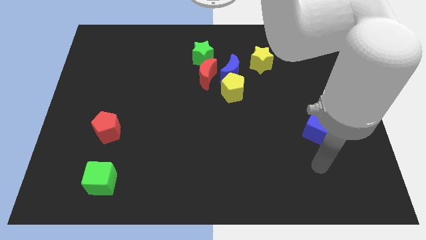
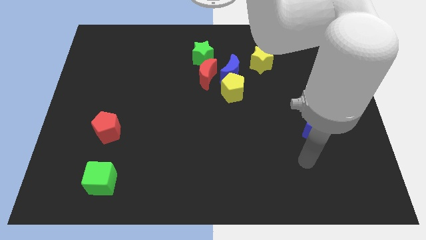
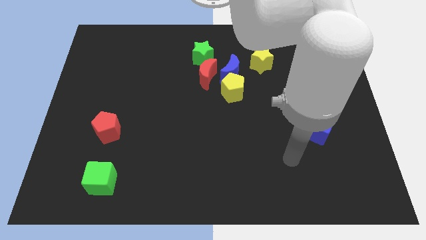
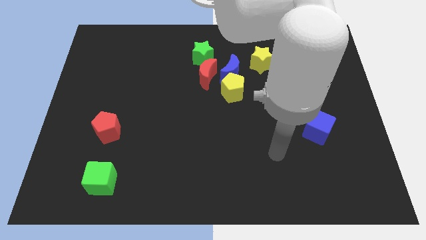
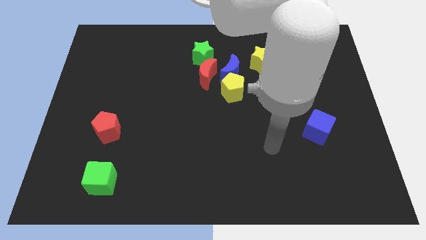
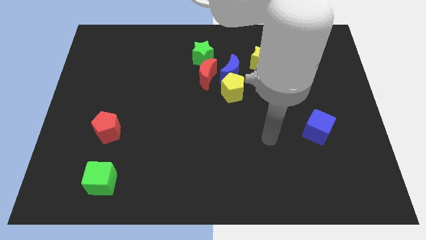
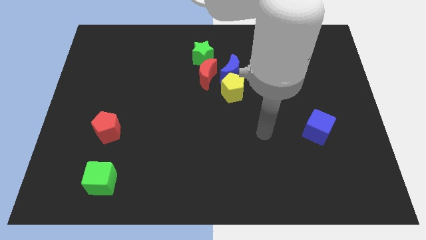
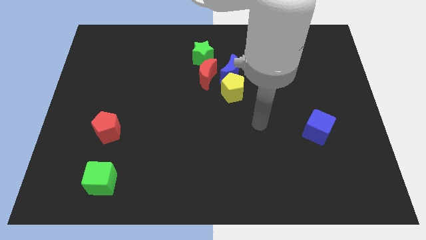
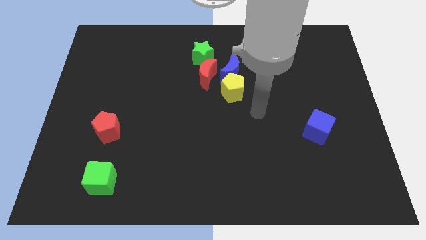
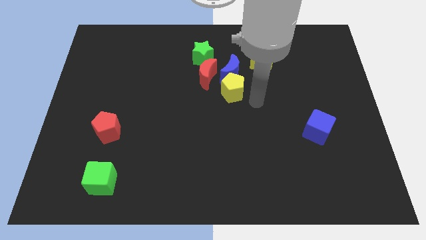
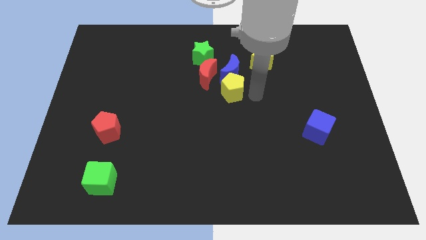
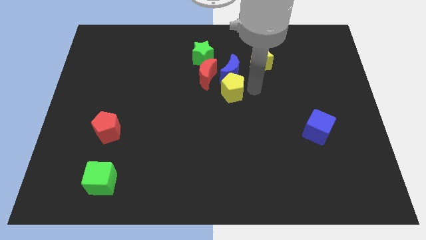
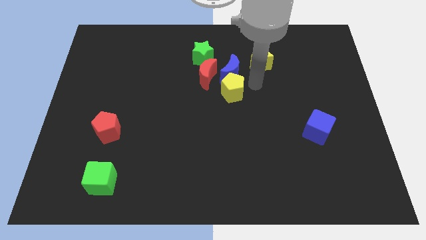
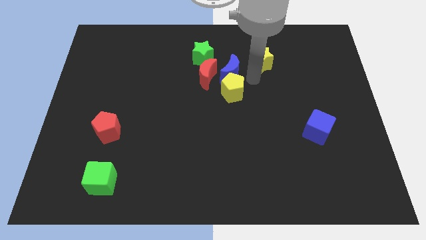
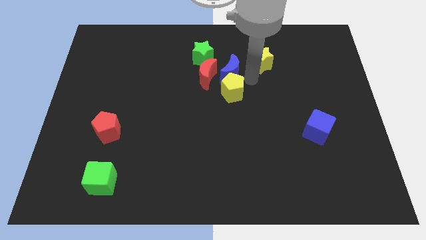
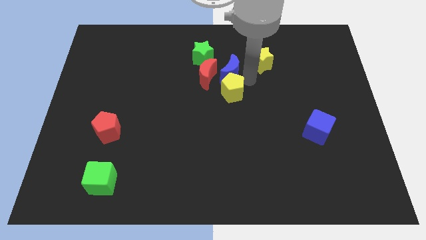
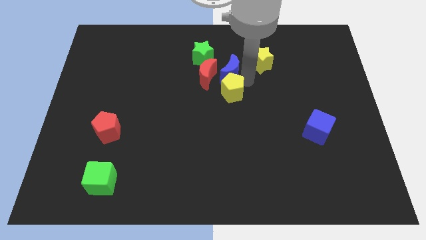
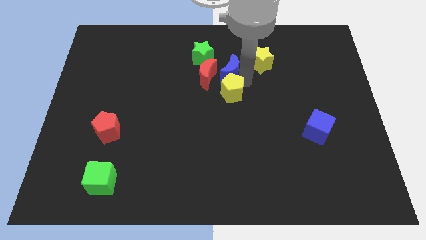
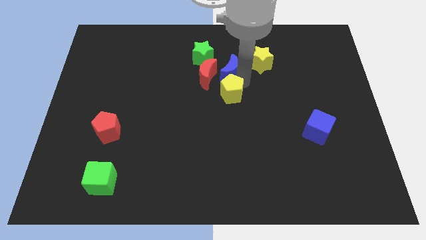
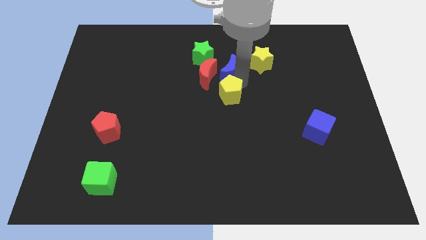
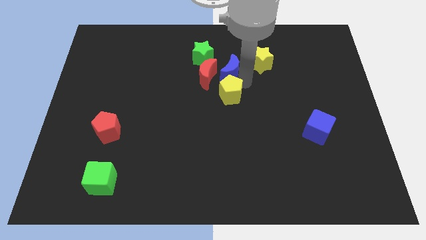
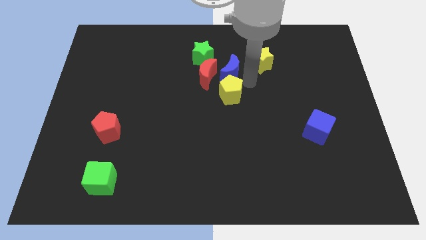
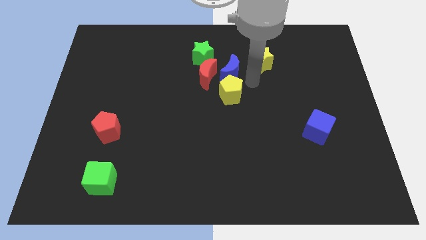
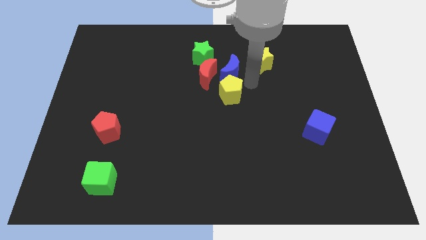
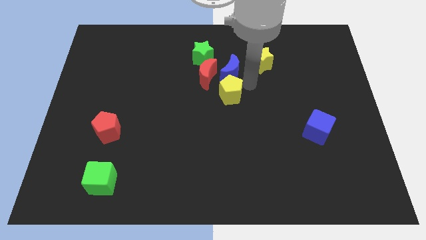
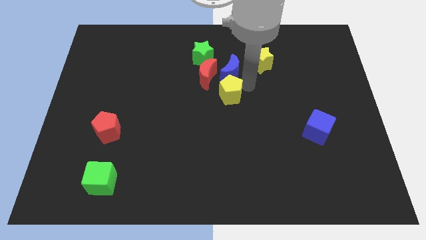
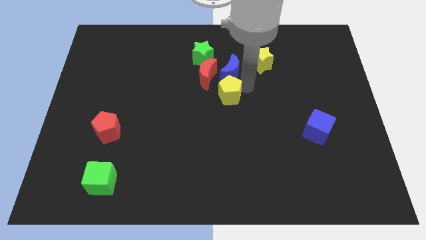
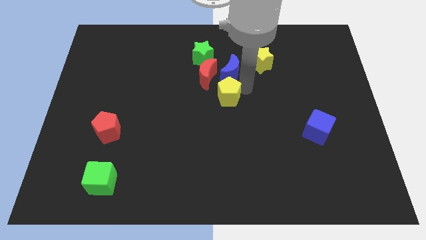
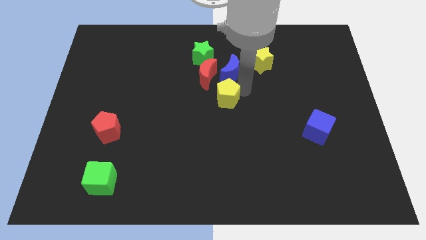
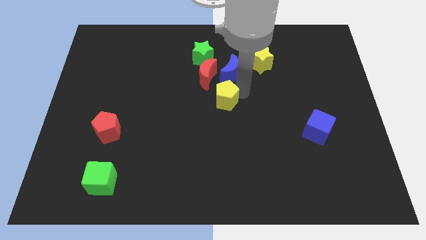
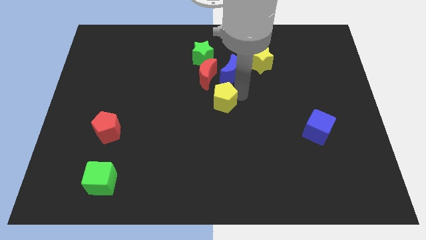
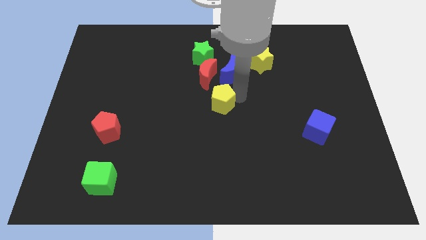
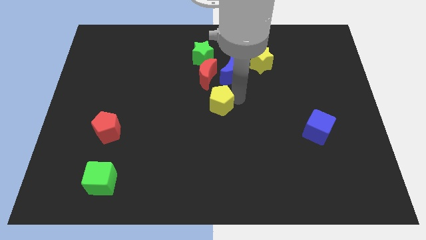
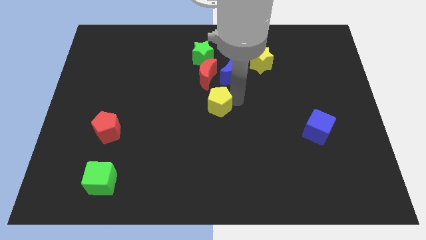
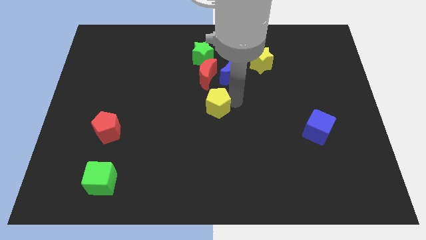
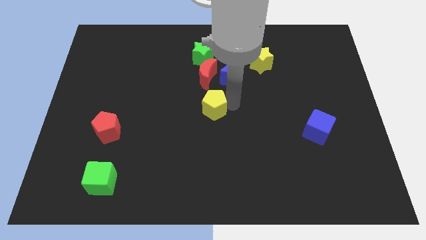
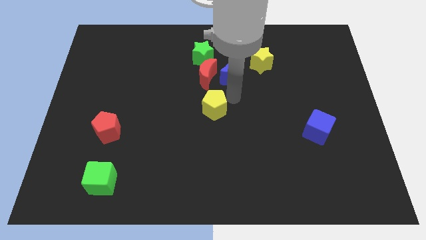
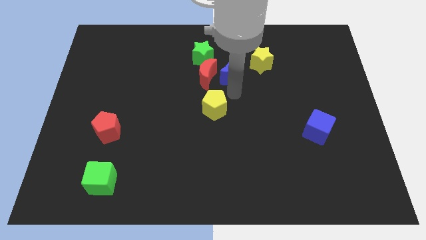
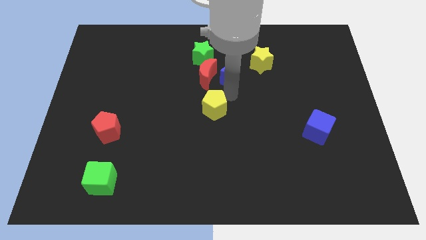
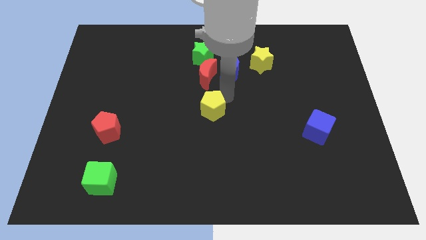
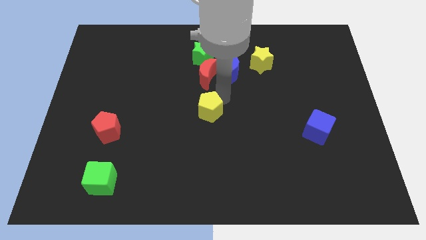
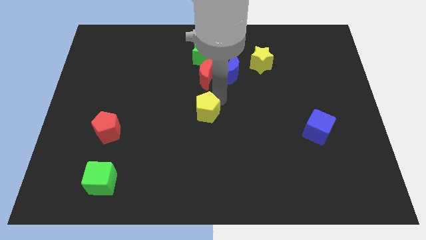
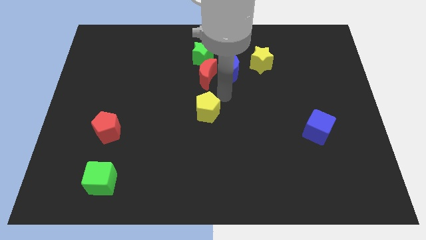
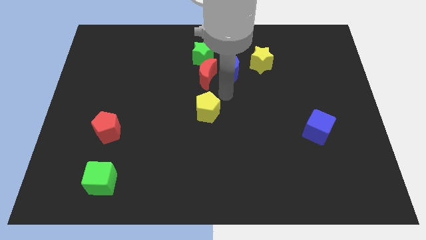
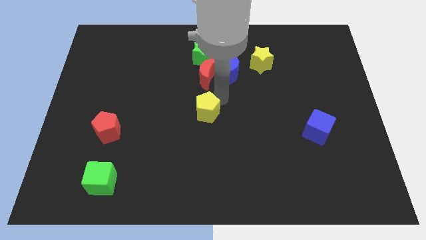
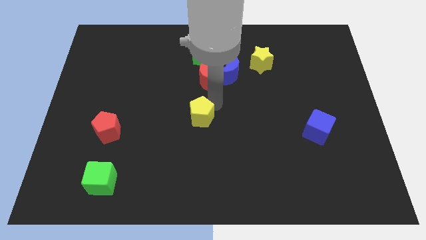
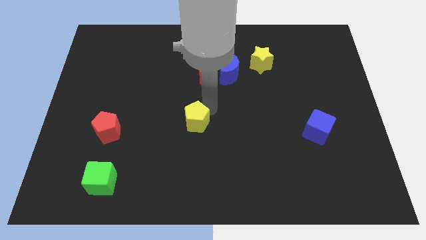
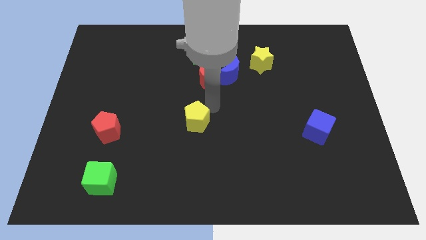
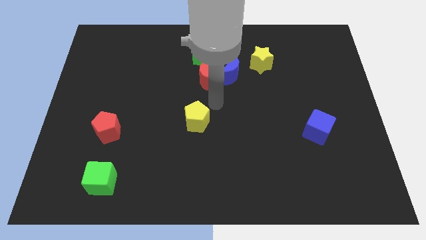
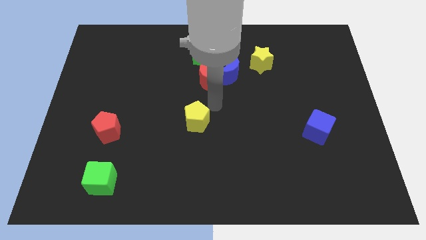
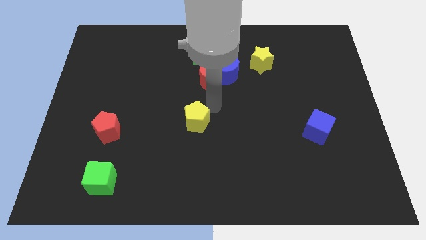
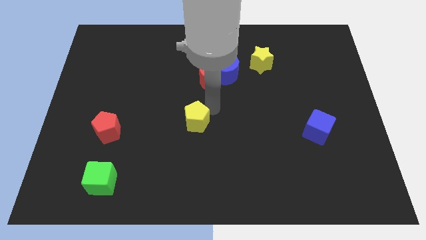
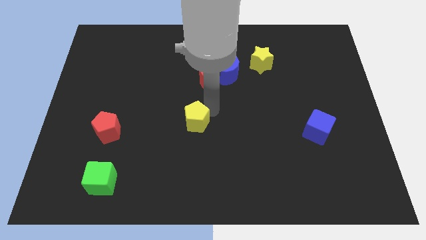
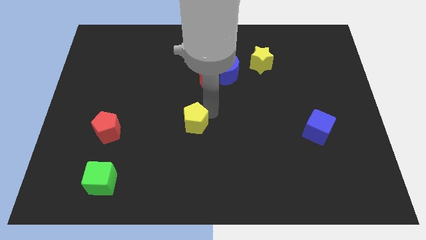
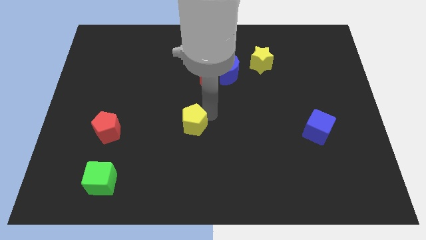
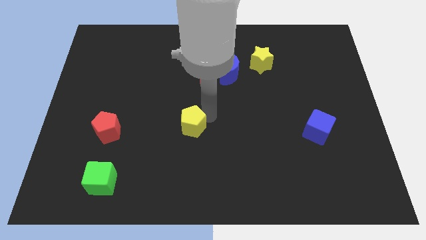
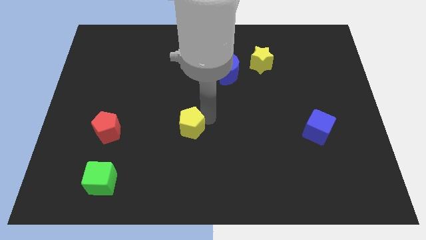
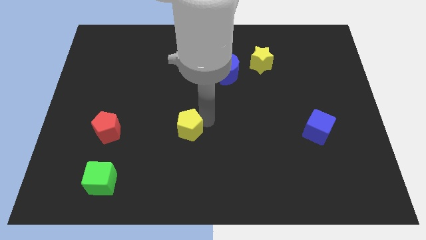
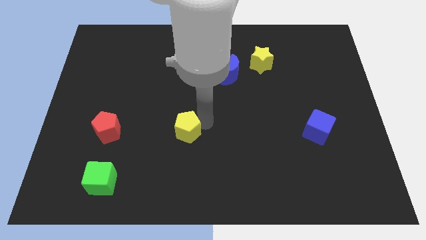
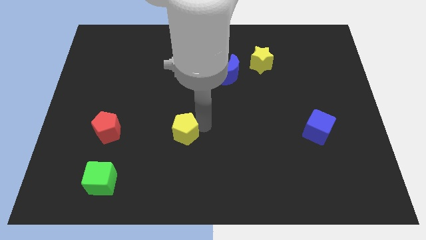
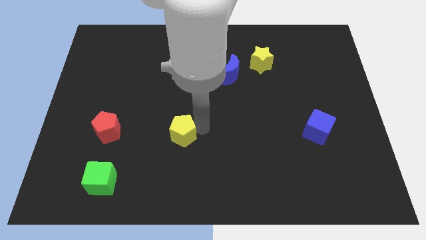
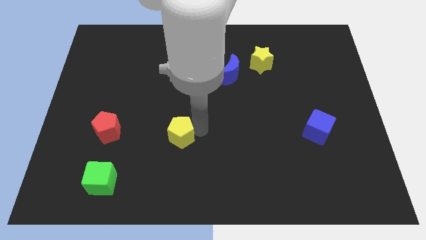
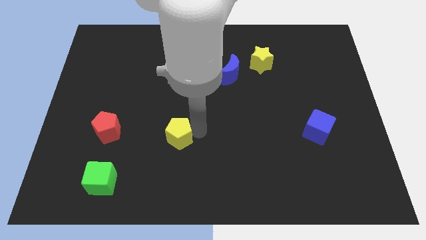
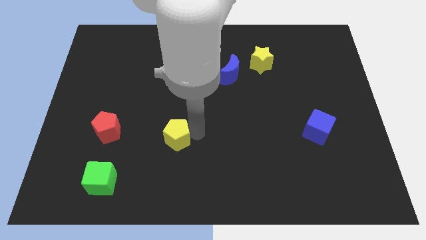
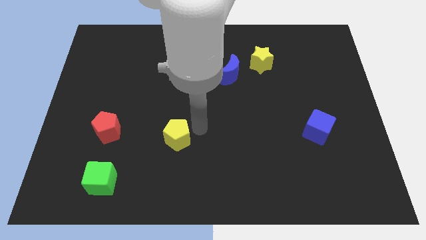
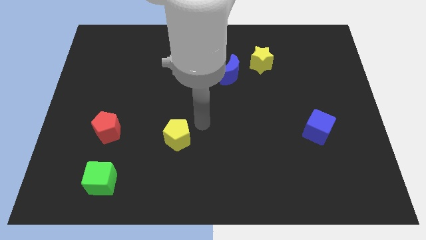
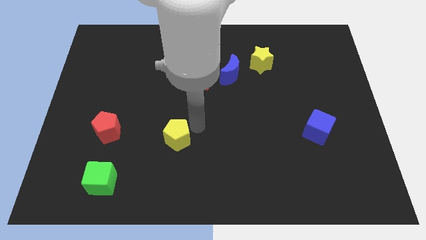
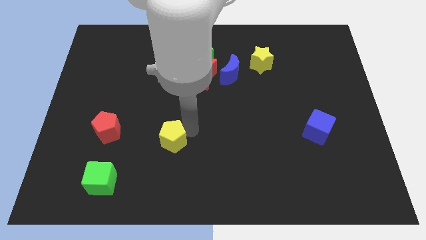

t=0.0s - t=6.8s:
move the yellow pentagon diagonally downwards and to the left

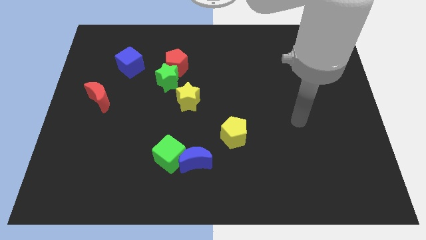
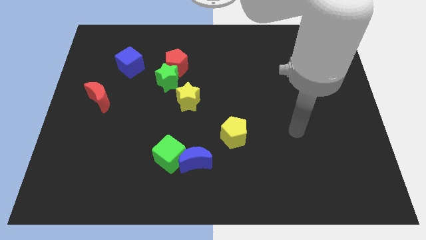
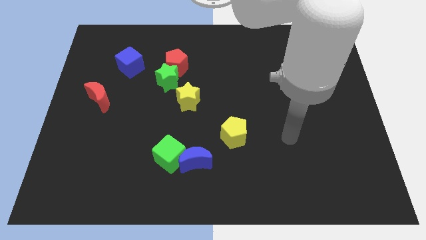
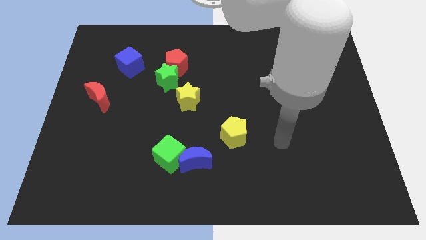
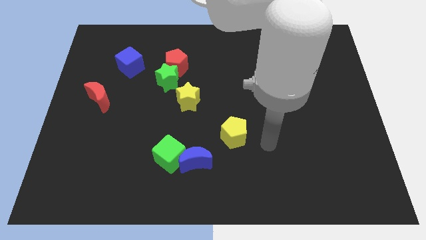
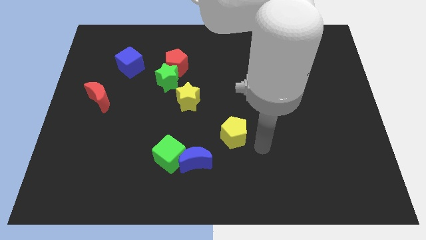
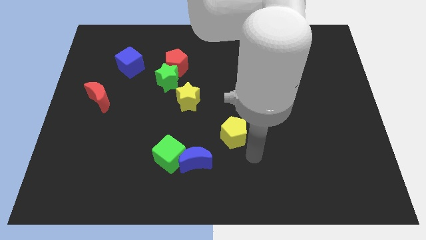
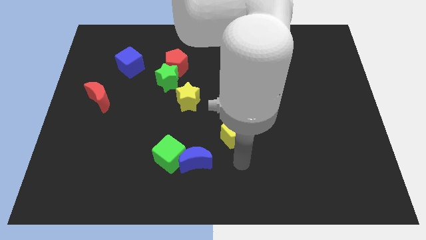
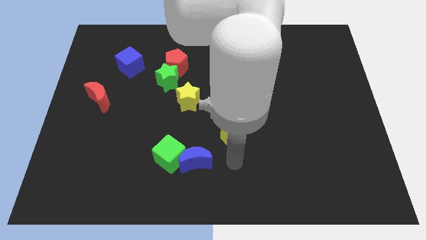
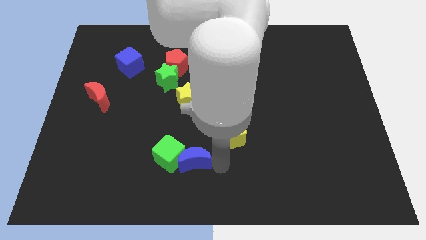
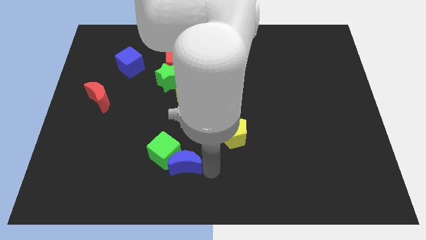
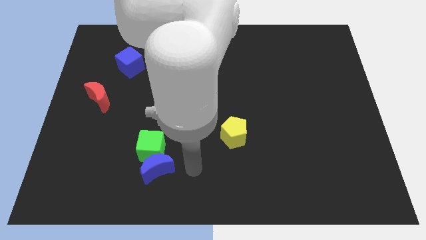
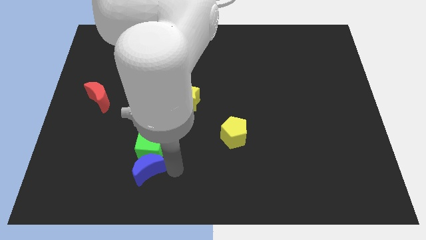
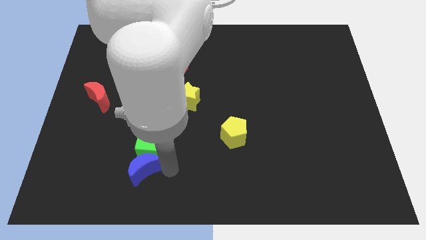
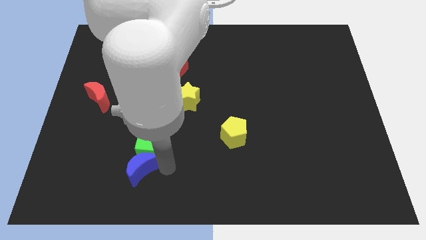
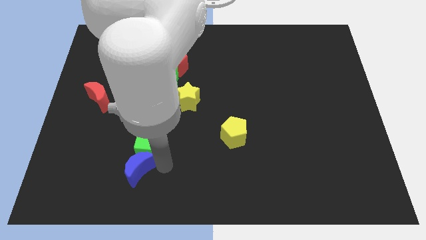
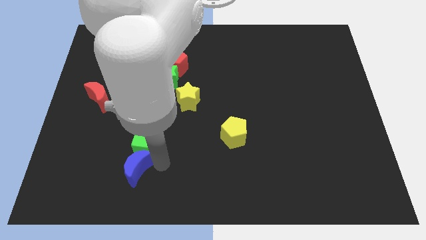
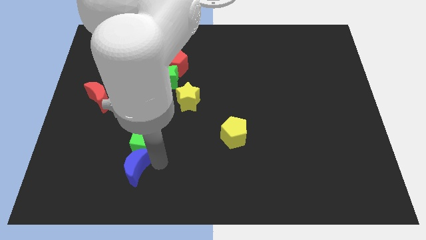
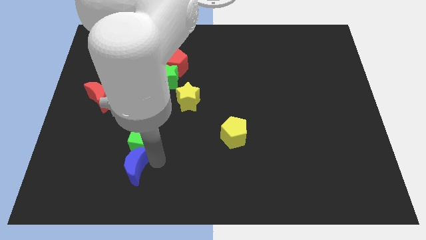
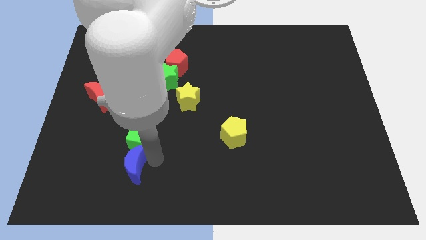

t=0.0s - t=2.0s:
slightly move the green cube up and then left
